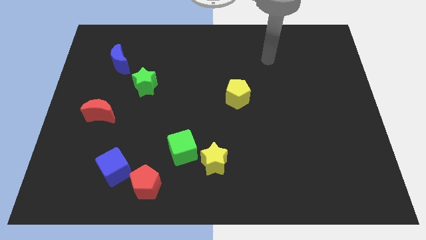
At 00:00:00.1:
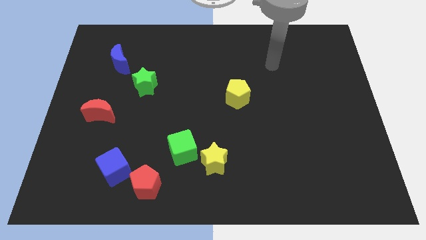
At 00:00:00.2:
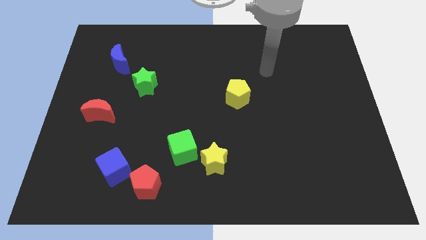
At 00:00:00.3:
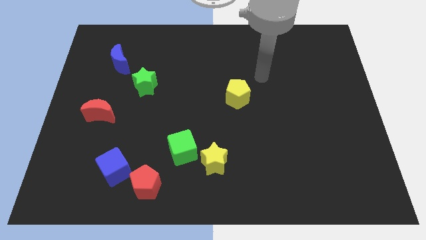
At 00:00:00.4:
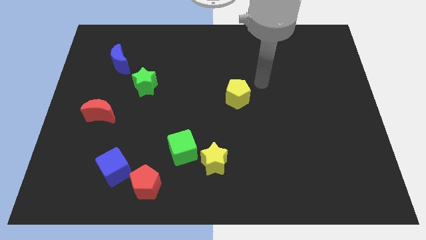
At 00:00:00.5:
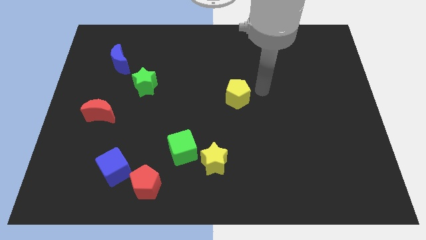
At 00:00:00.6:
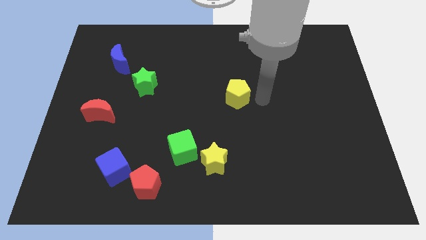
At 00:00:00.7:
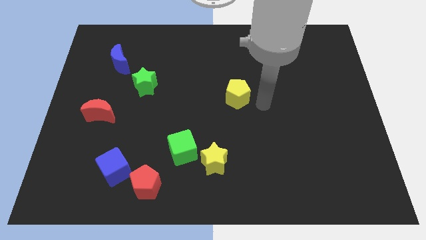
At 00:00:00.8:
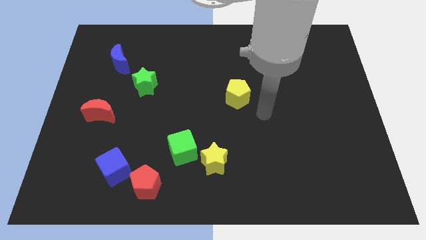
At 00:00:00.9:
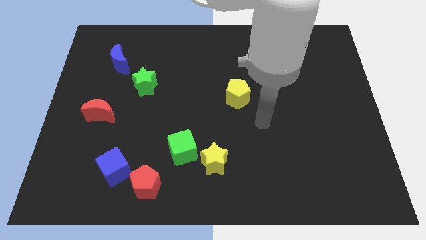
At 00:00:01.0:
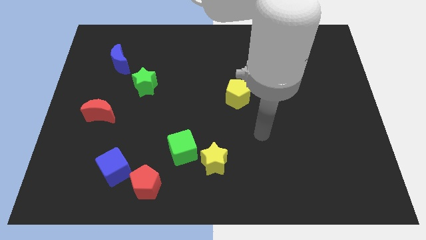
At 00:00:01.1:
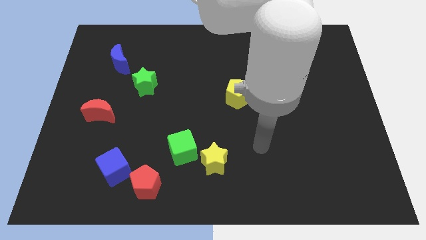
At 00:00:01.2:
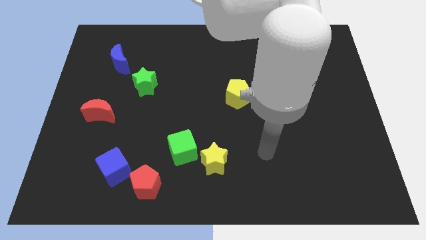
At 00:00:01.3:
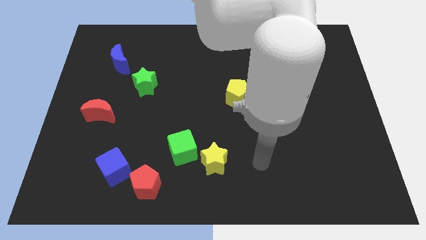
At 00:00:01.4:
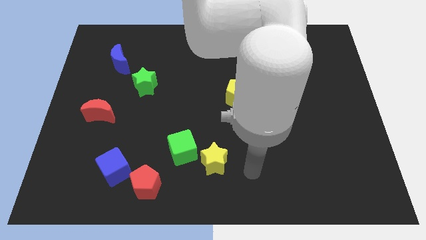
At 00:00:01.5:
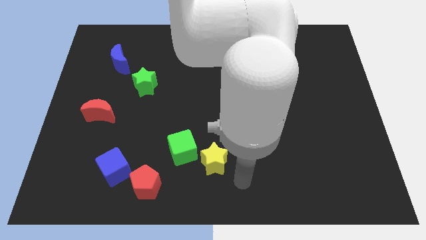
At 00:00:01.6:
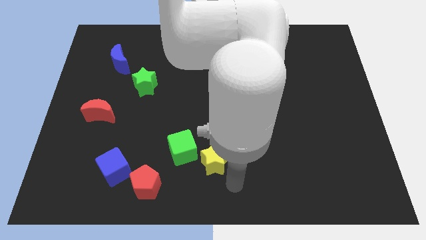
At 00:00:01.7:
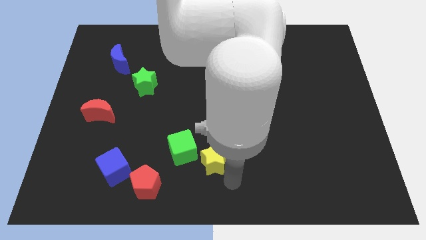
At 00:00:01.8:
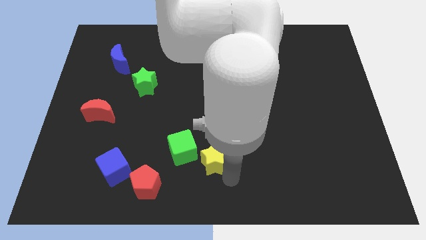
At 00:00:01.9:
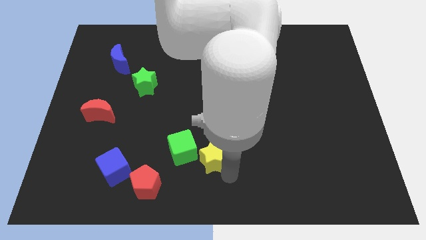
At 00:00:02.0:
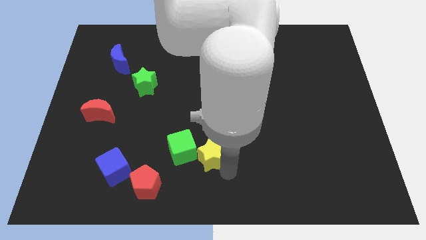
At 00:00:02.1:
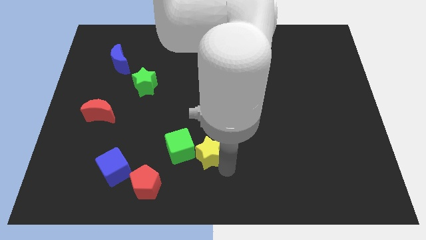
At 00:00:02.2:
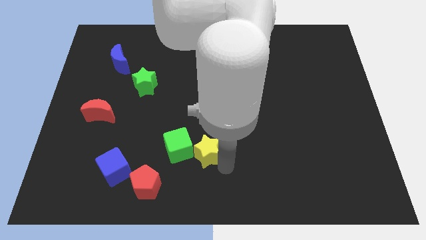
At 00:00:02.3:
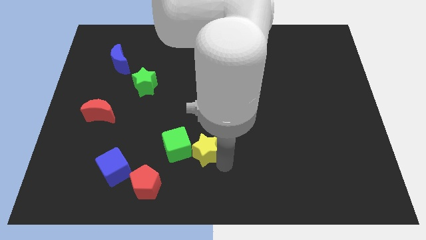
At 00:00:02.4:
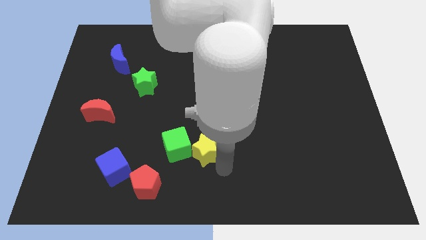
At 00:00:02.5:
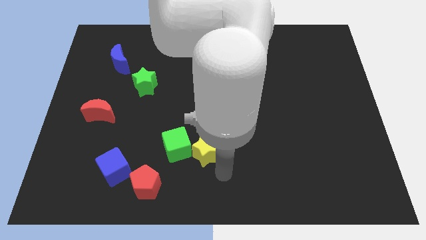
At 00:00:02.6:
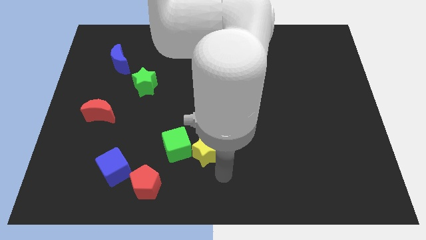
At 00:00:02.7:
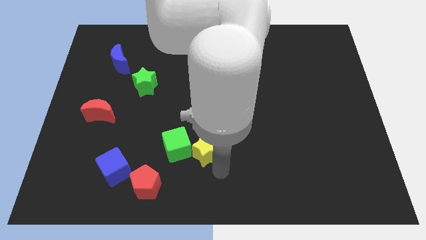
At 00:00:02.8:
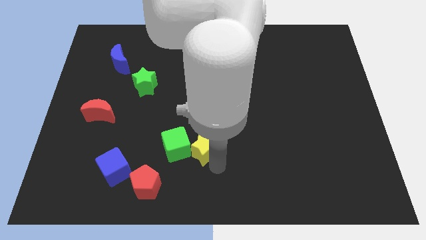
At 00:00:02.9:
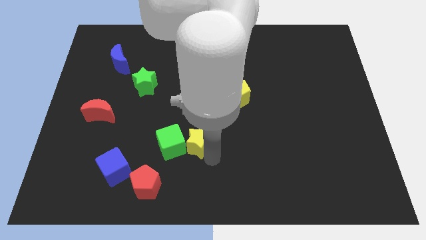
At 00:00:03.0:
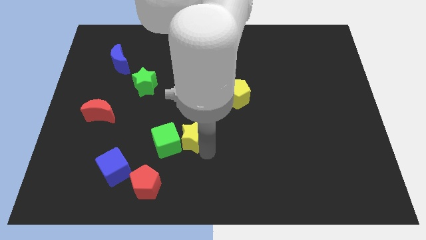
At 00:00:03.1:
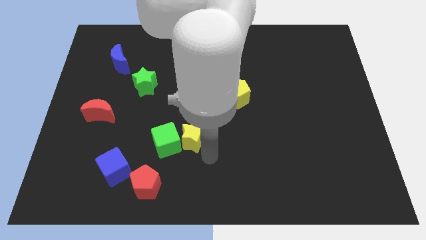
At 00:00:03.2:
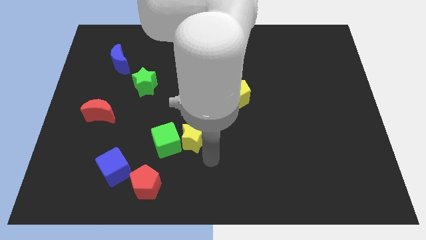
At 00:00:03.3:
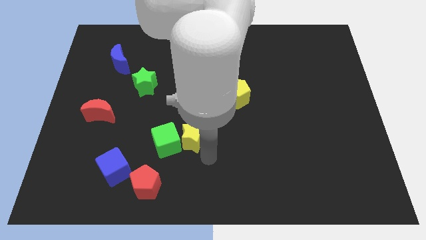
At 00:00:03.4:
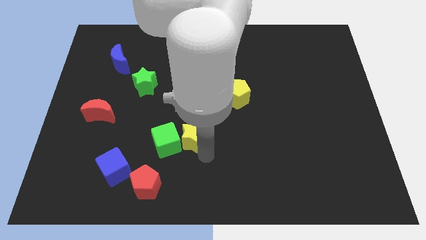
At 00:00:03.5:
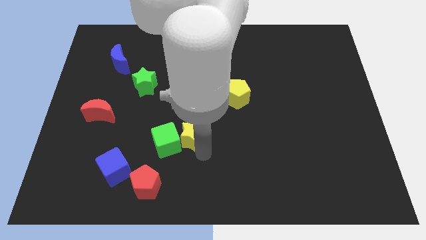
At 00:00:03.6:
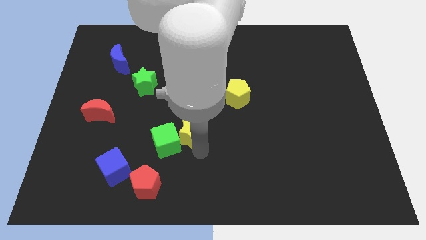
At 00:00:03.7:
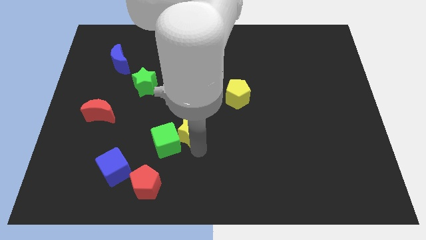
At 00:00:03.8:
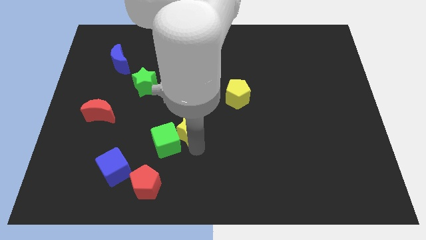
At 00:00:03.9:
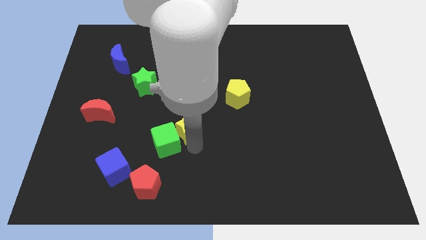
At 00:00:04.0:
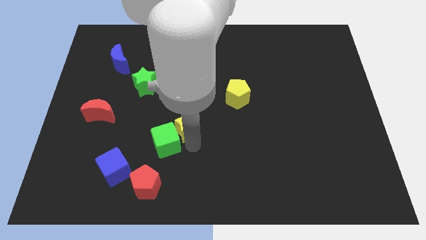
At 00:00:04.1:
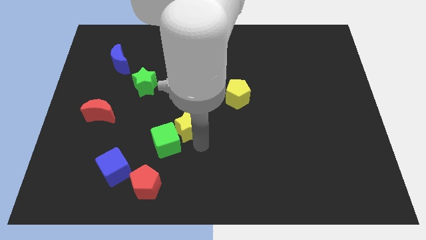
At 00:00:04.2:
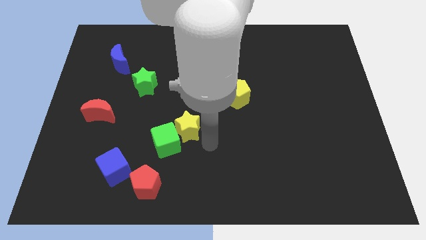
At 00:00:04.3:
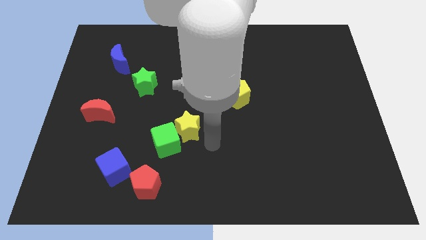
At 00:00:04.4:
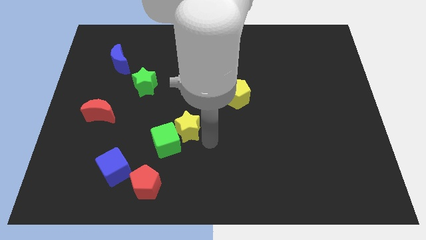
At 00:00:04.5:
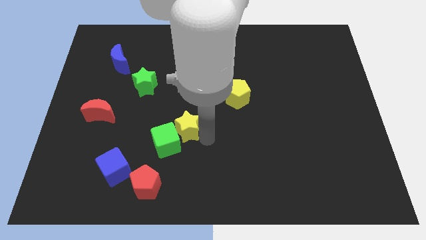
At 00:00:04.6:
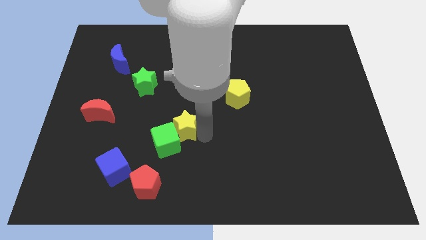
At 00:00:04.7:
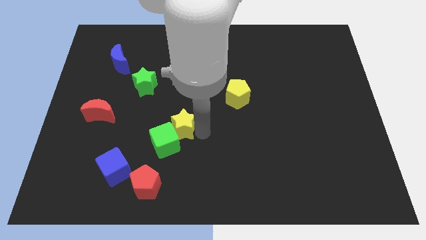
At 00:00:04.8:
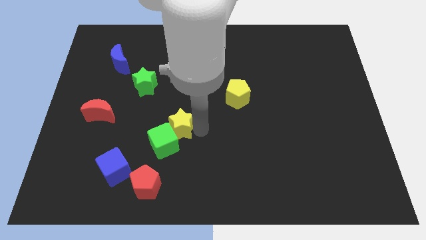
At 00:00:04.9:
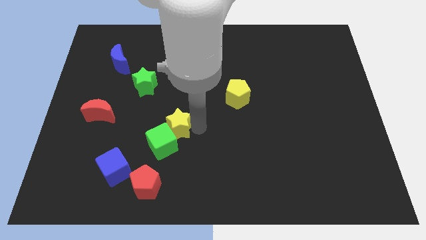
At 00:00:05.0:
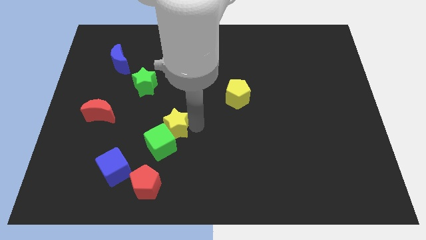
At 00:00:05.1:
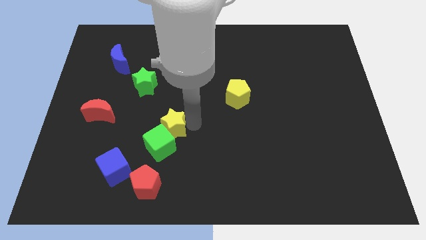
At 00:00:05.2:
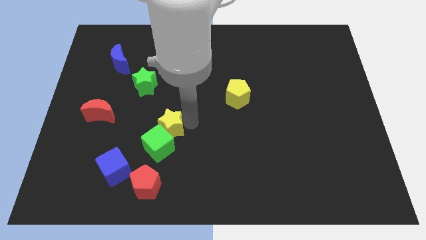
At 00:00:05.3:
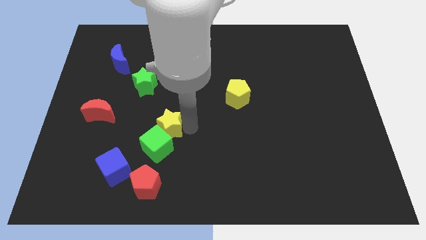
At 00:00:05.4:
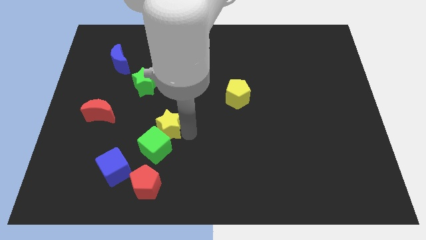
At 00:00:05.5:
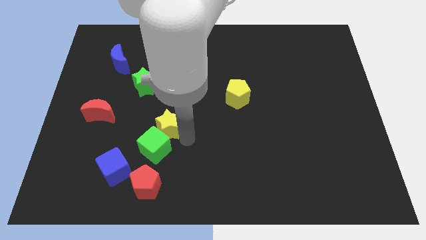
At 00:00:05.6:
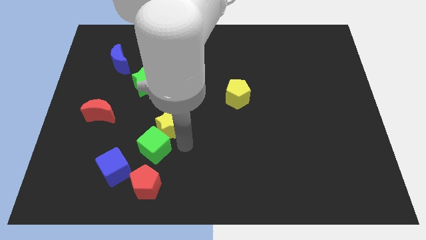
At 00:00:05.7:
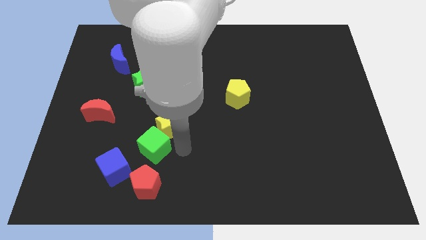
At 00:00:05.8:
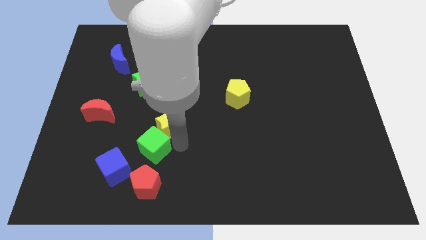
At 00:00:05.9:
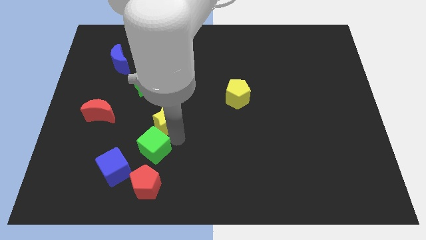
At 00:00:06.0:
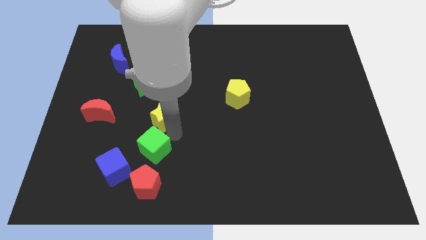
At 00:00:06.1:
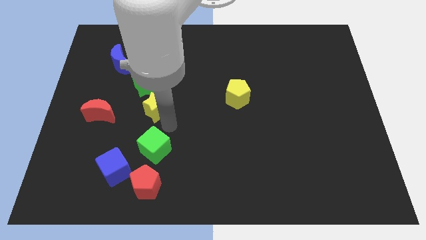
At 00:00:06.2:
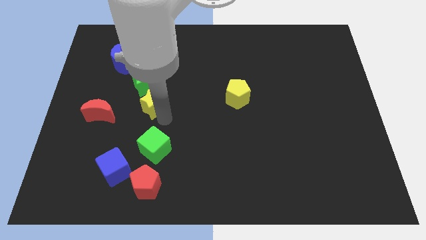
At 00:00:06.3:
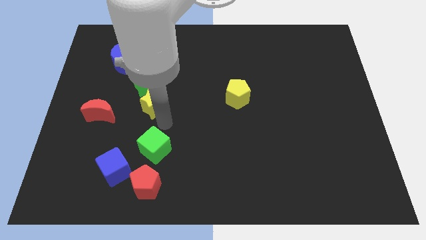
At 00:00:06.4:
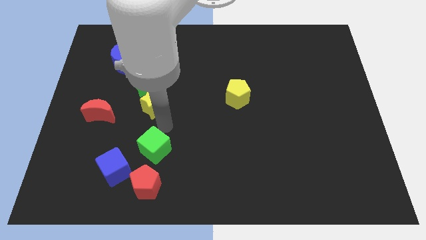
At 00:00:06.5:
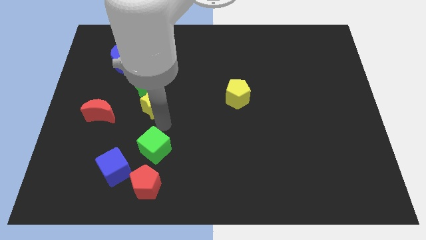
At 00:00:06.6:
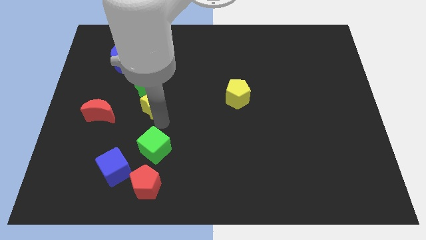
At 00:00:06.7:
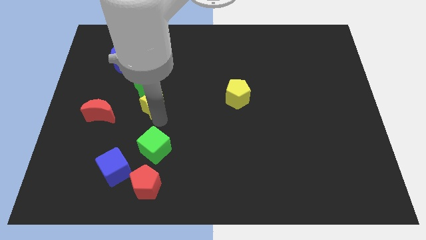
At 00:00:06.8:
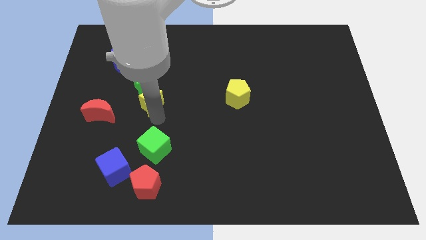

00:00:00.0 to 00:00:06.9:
put the yellow star to the green star
